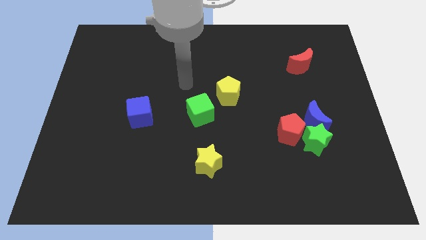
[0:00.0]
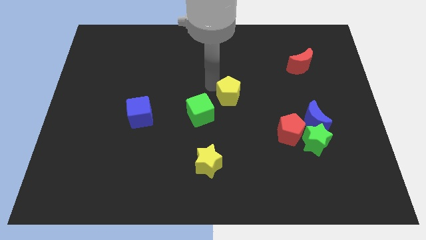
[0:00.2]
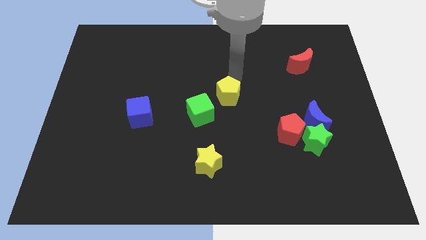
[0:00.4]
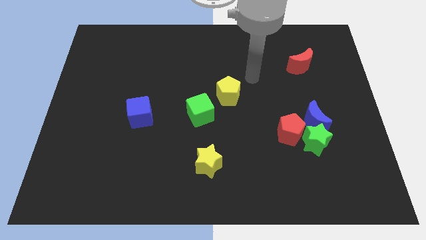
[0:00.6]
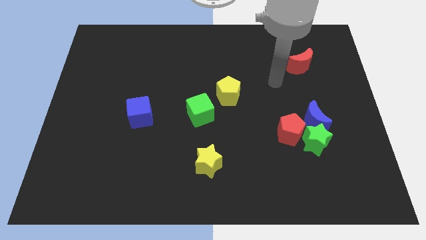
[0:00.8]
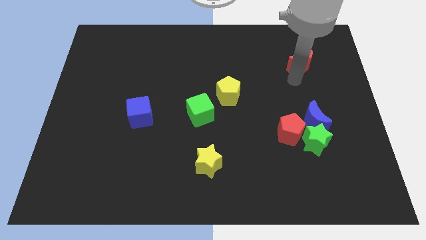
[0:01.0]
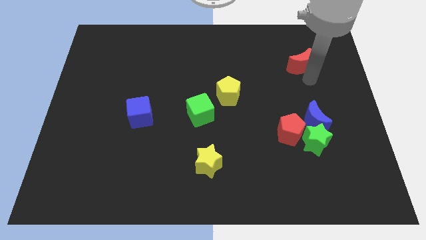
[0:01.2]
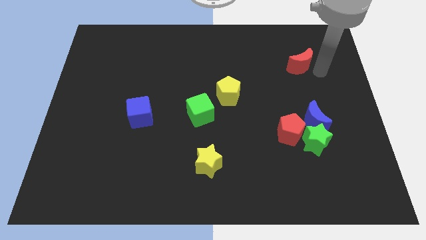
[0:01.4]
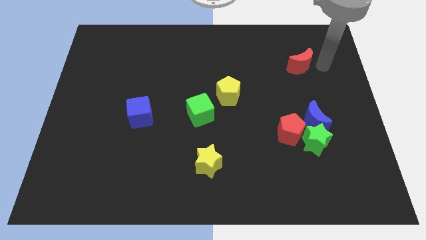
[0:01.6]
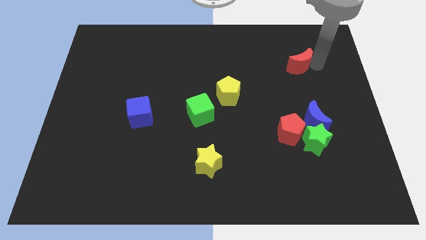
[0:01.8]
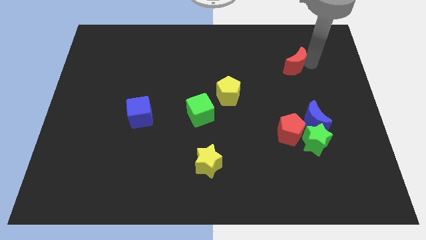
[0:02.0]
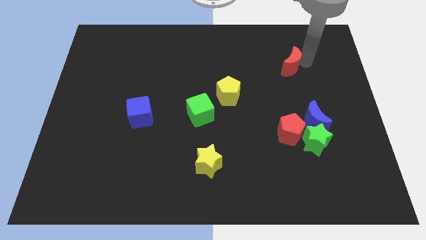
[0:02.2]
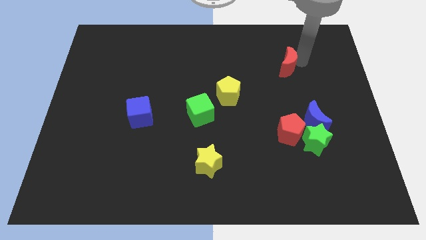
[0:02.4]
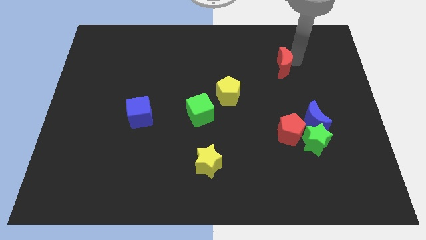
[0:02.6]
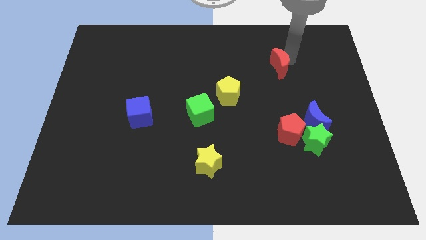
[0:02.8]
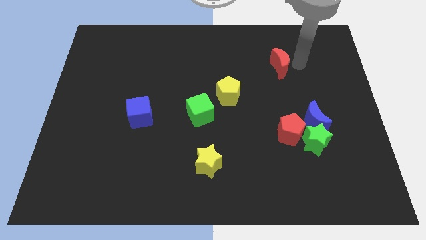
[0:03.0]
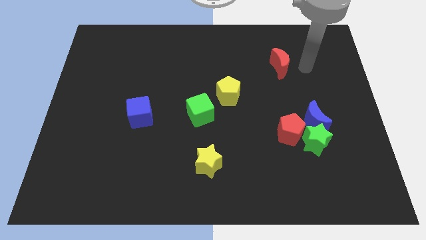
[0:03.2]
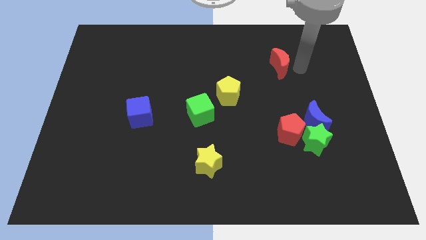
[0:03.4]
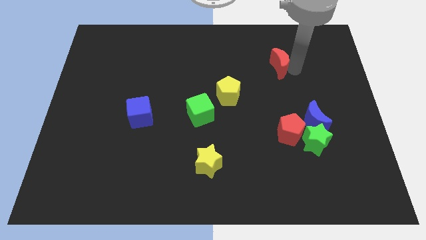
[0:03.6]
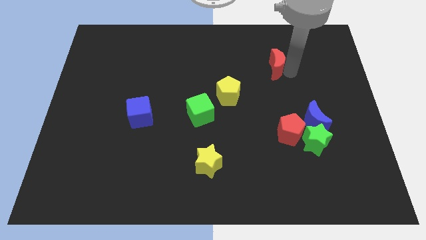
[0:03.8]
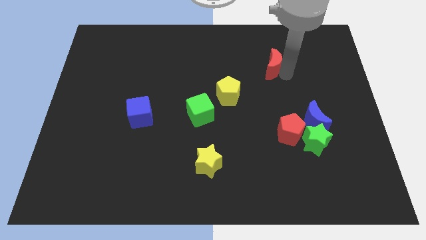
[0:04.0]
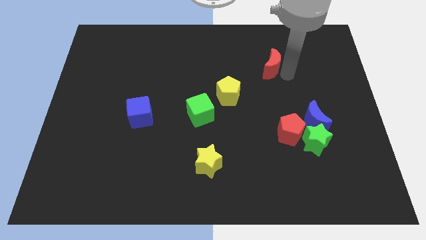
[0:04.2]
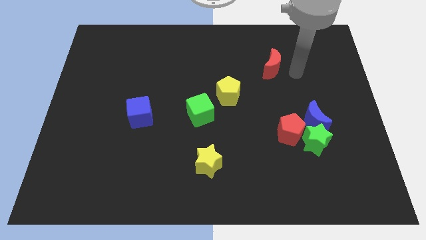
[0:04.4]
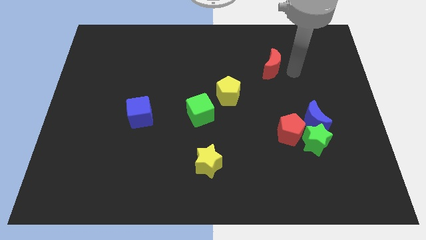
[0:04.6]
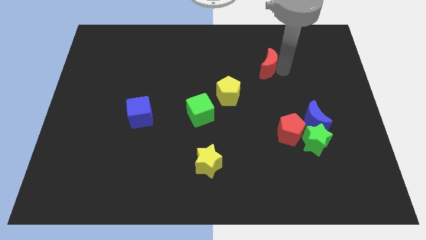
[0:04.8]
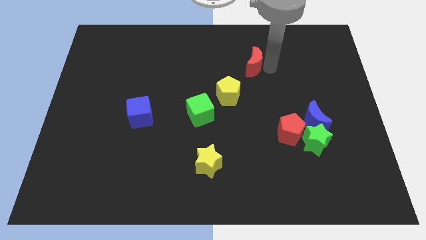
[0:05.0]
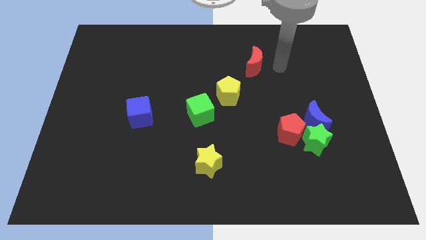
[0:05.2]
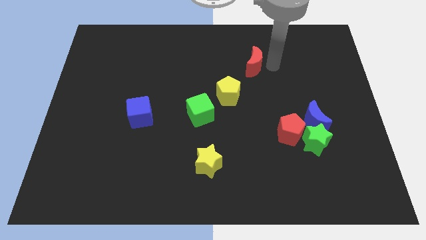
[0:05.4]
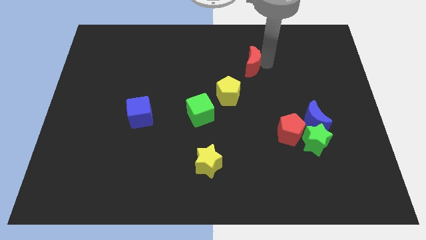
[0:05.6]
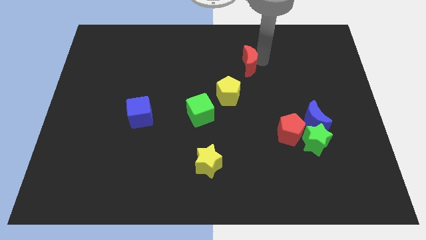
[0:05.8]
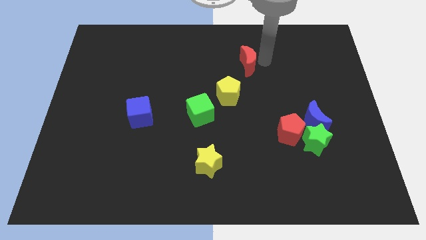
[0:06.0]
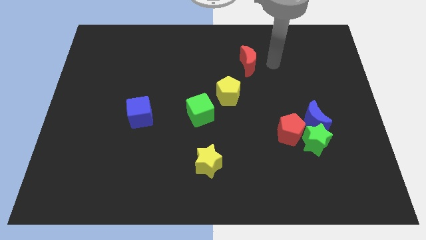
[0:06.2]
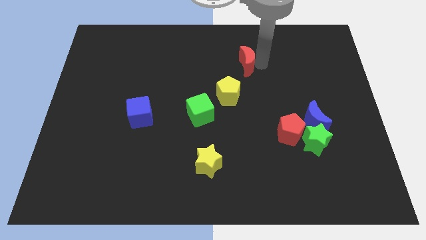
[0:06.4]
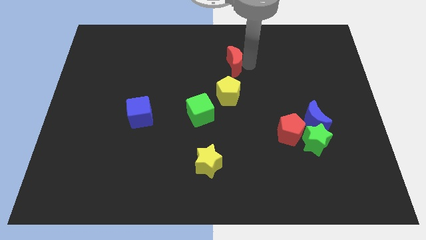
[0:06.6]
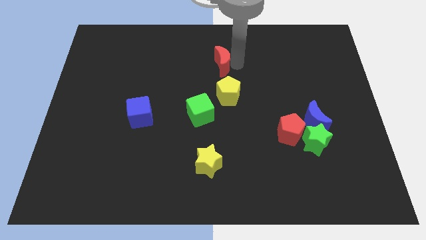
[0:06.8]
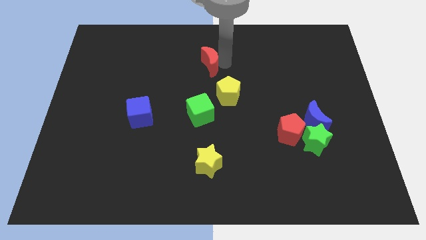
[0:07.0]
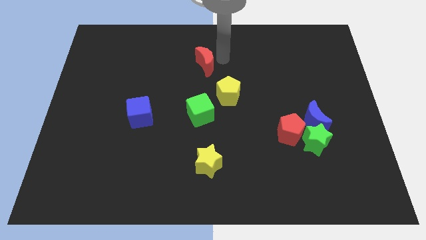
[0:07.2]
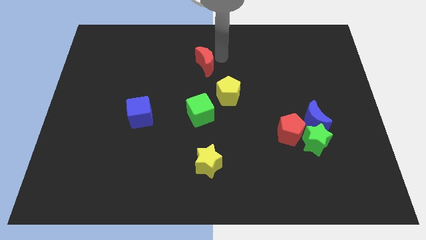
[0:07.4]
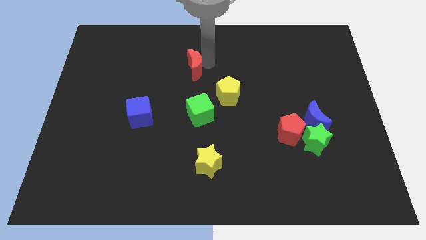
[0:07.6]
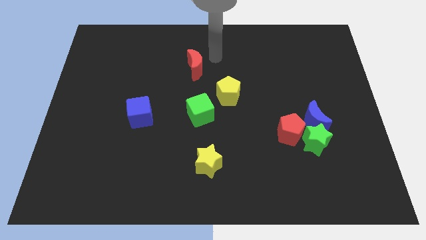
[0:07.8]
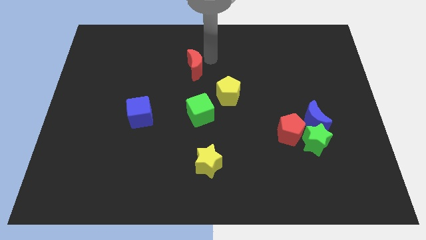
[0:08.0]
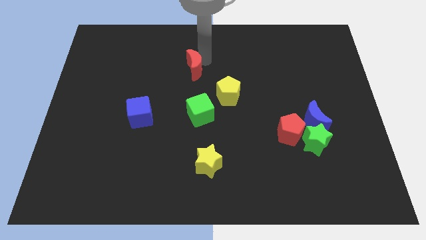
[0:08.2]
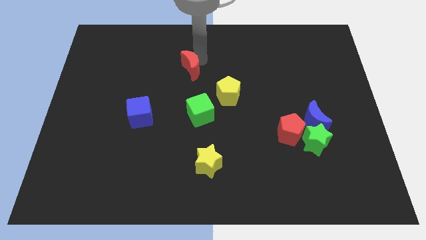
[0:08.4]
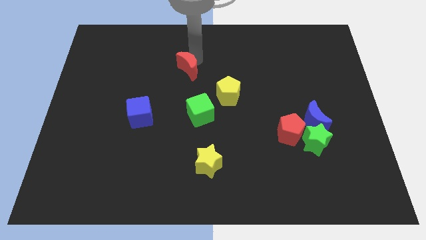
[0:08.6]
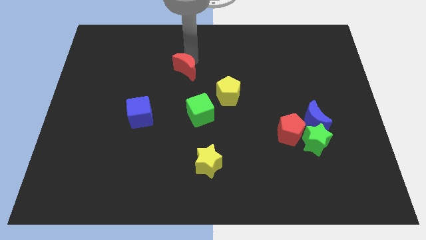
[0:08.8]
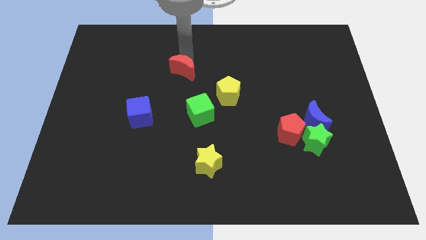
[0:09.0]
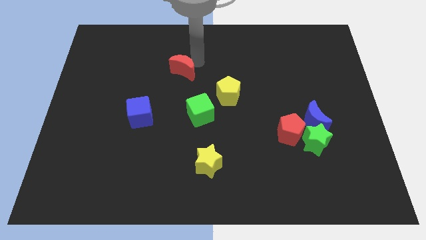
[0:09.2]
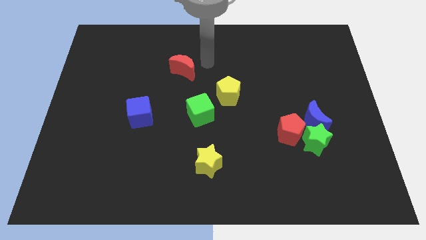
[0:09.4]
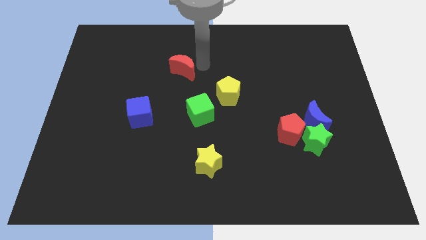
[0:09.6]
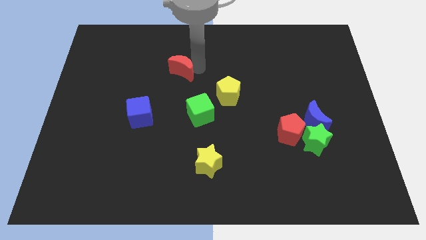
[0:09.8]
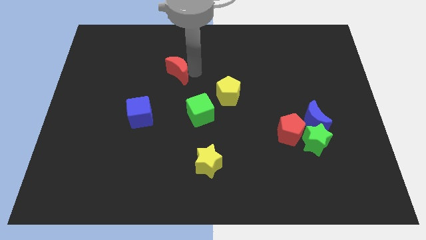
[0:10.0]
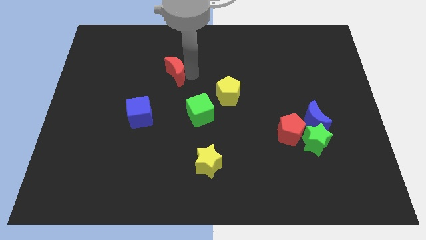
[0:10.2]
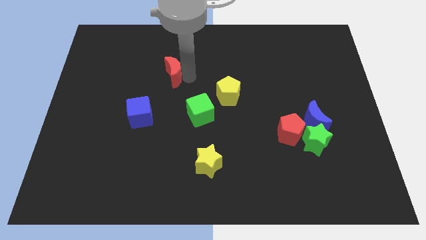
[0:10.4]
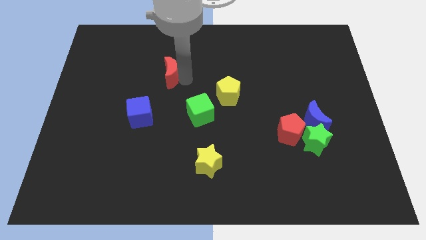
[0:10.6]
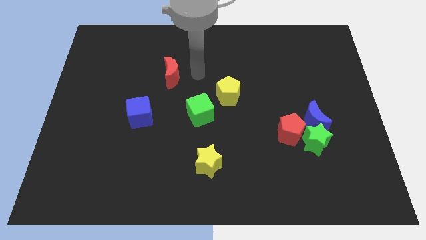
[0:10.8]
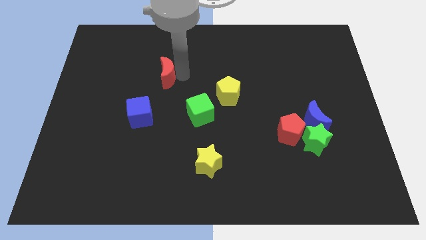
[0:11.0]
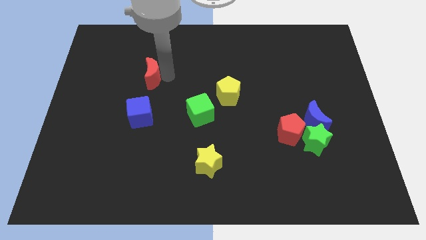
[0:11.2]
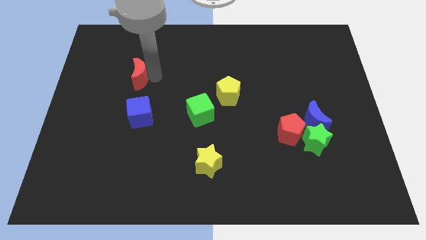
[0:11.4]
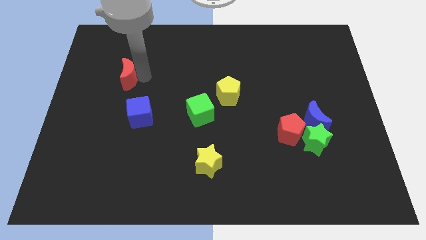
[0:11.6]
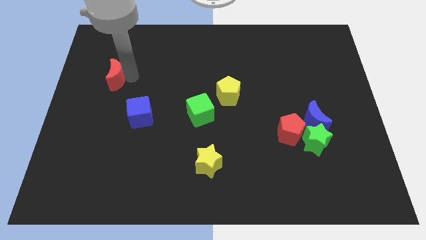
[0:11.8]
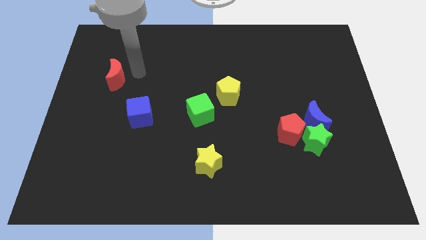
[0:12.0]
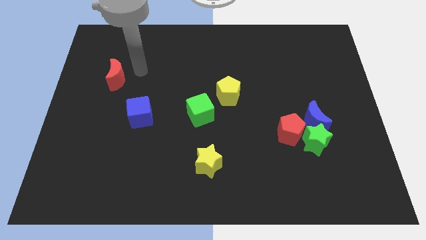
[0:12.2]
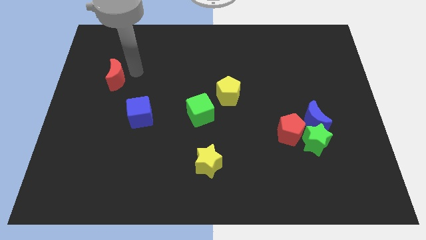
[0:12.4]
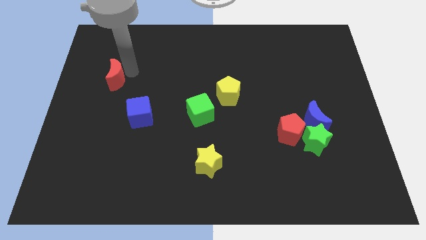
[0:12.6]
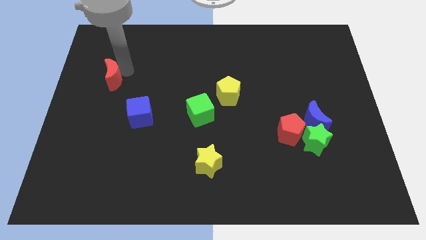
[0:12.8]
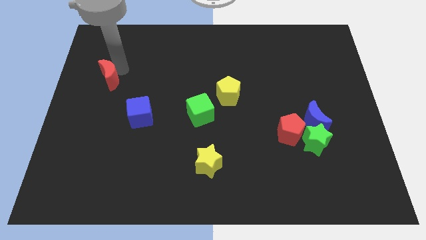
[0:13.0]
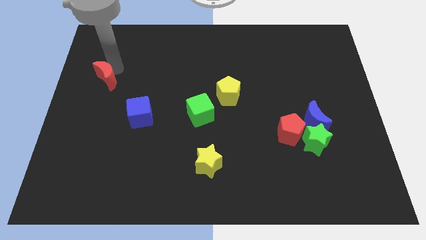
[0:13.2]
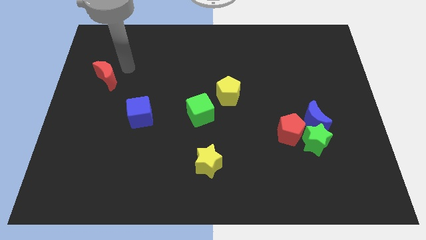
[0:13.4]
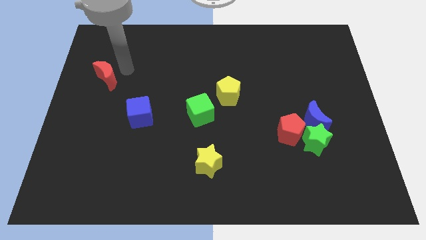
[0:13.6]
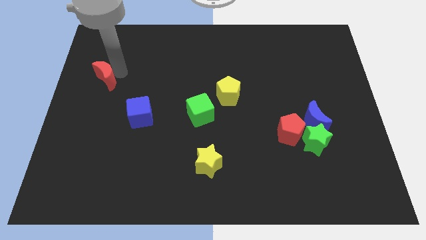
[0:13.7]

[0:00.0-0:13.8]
slide the red moon to the left side of the board

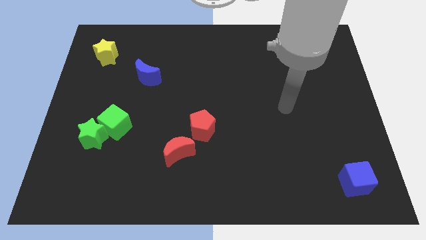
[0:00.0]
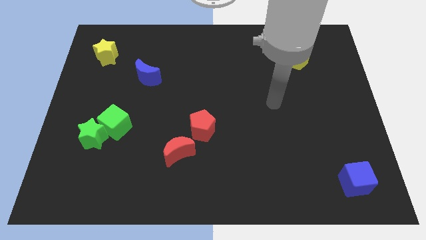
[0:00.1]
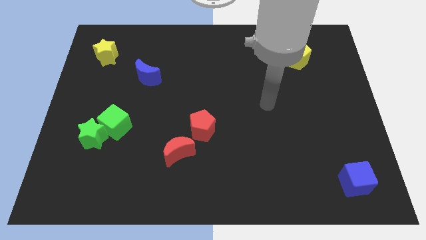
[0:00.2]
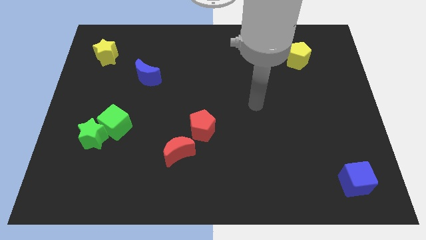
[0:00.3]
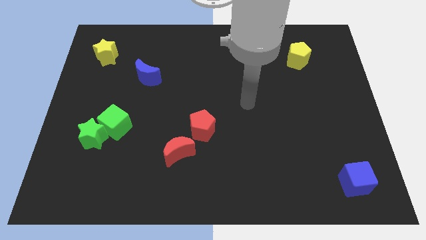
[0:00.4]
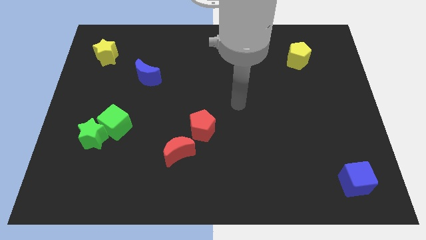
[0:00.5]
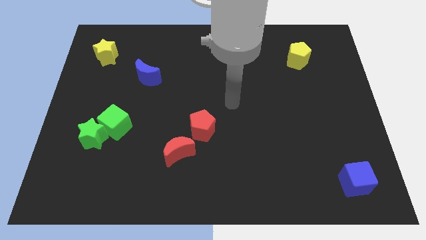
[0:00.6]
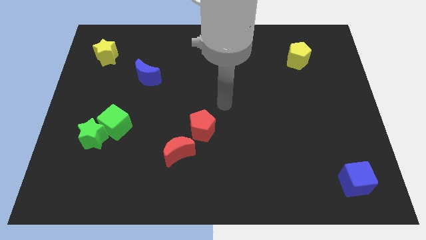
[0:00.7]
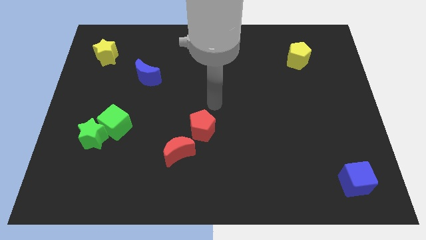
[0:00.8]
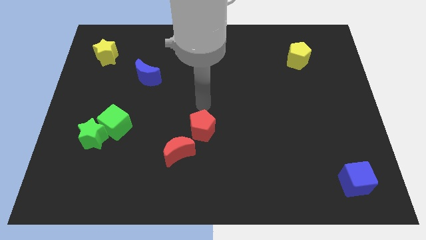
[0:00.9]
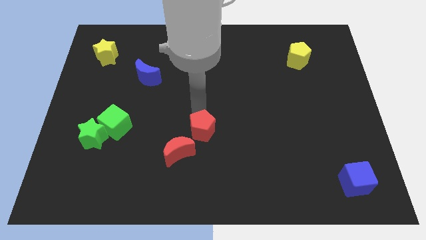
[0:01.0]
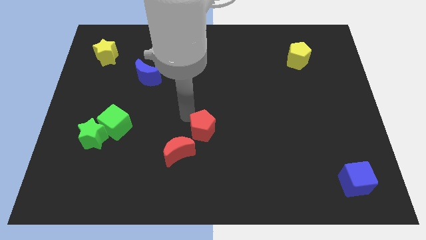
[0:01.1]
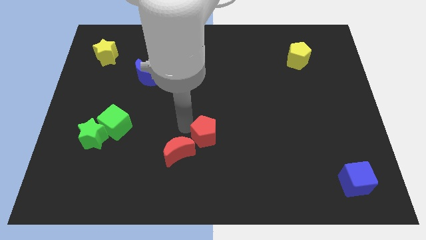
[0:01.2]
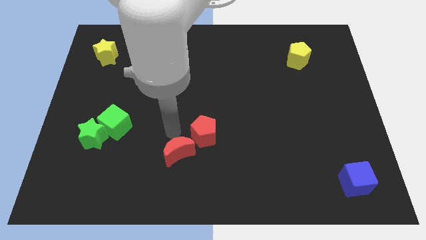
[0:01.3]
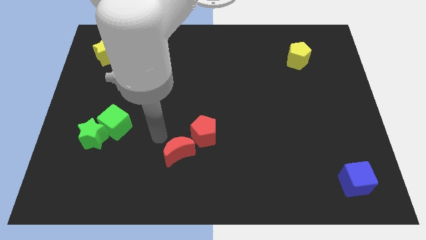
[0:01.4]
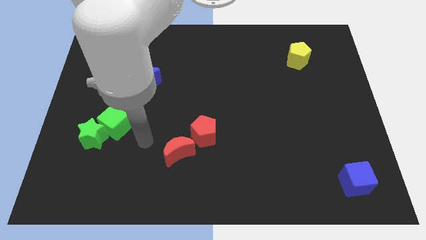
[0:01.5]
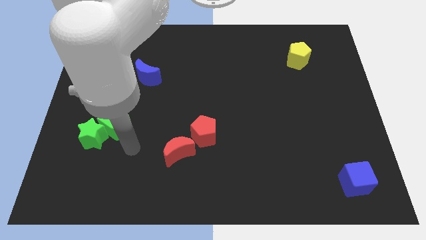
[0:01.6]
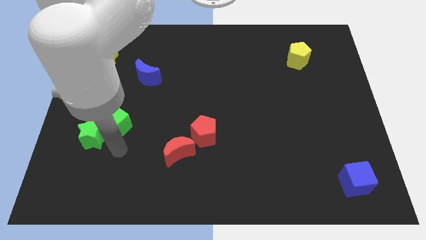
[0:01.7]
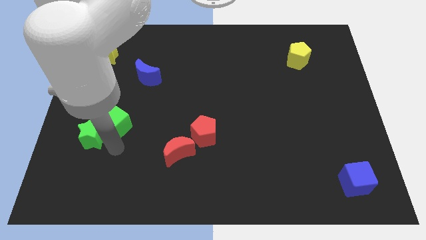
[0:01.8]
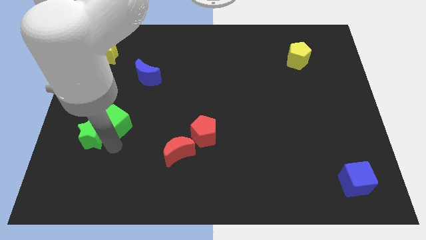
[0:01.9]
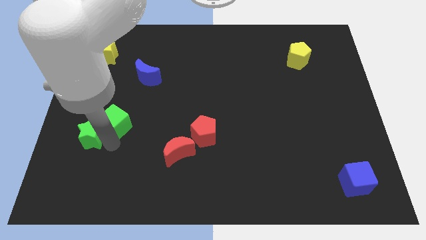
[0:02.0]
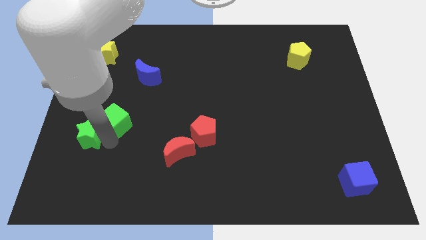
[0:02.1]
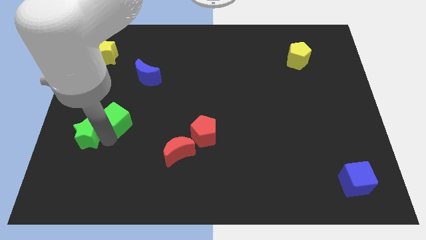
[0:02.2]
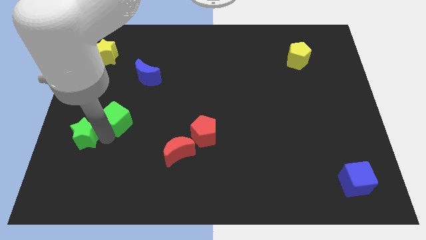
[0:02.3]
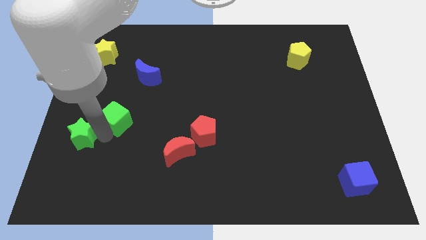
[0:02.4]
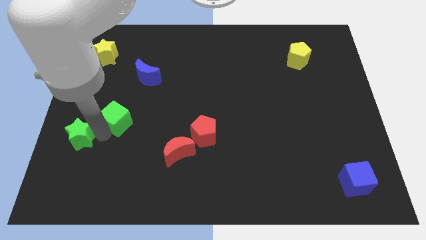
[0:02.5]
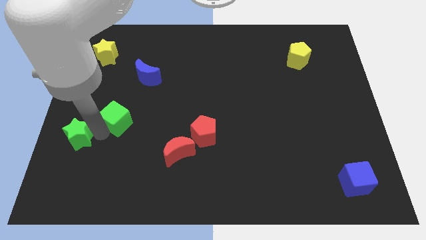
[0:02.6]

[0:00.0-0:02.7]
move the green star to the center left
